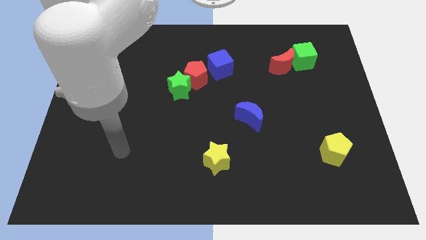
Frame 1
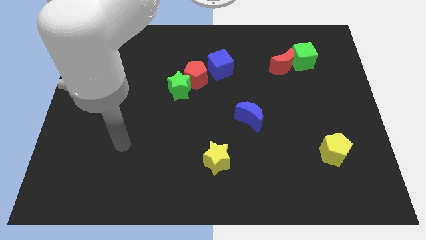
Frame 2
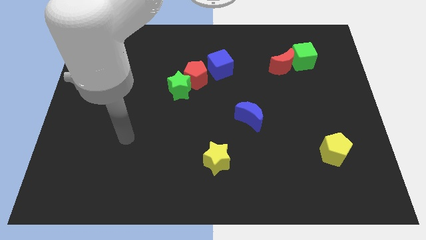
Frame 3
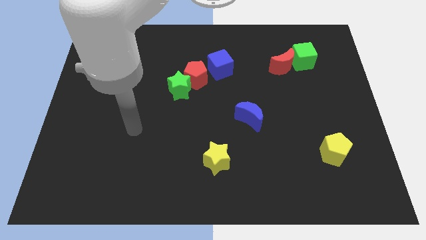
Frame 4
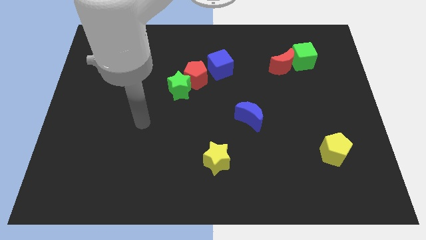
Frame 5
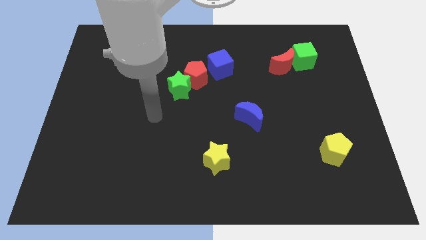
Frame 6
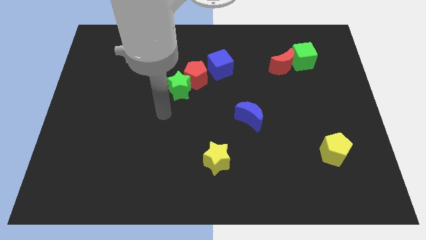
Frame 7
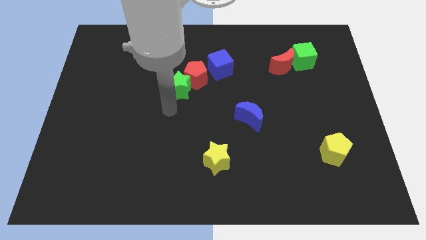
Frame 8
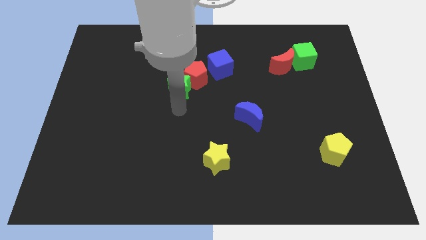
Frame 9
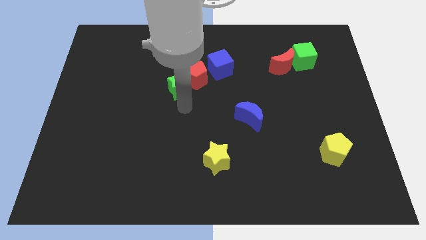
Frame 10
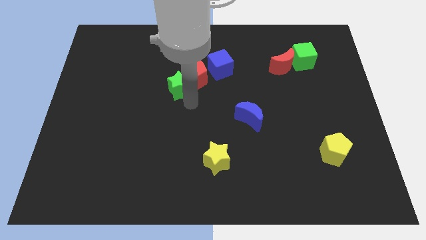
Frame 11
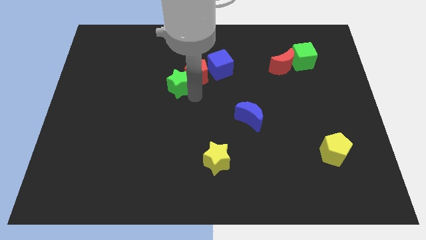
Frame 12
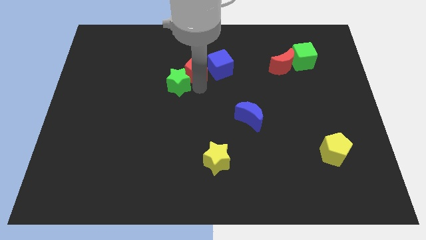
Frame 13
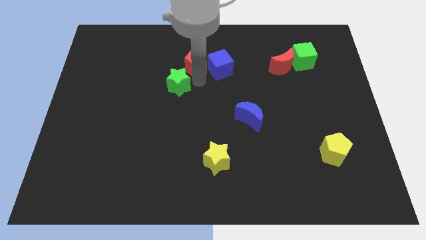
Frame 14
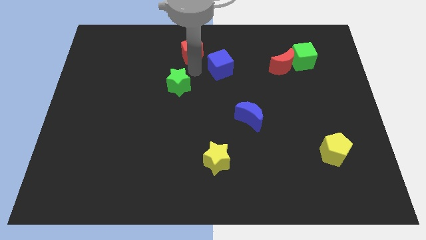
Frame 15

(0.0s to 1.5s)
move the green star away from the red pentagon

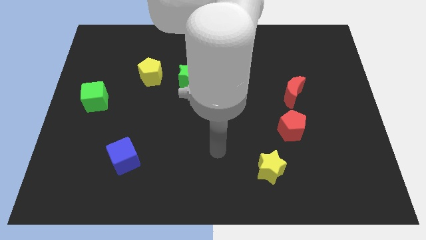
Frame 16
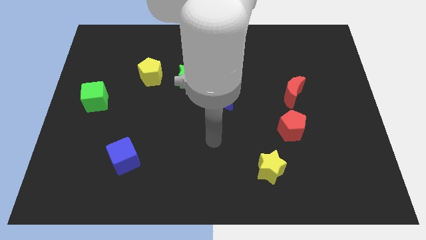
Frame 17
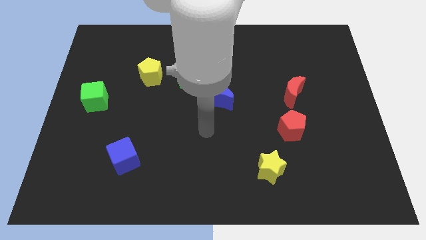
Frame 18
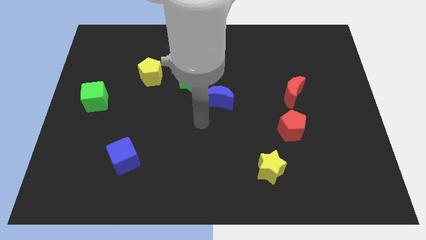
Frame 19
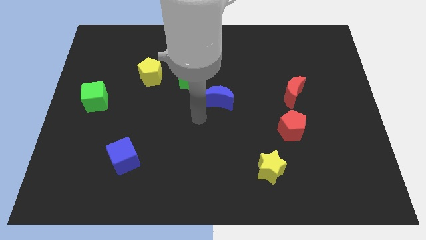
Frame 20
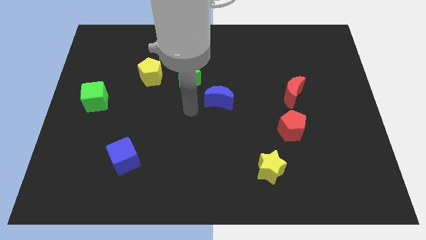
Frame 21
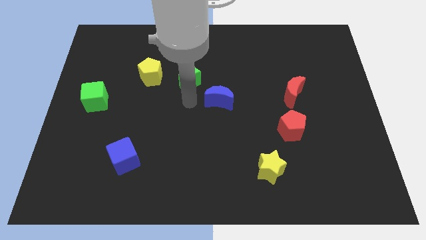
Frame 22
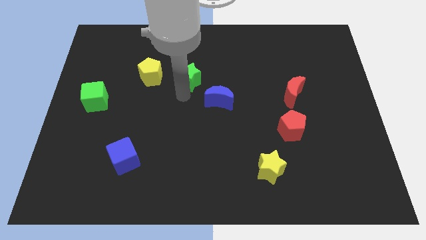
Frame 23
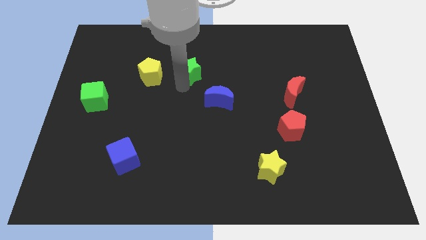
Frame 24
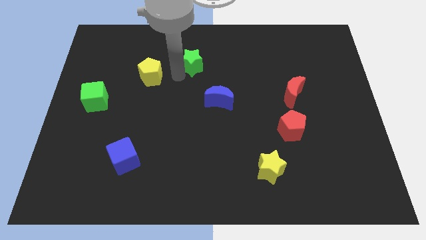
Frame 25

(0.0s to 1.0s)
move the yellow pentagon away from the green star

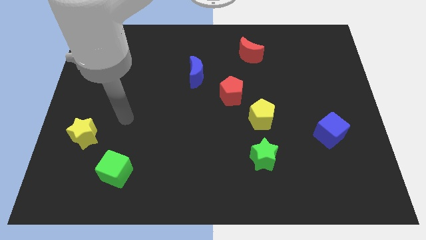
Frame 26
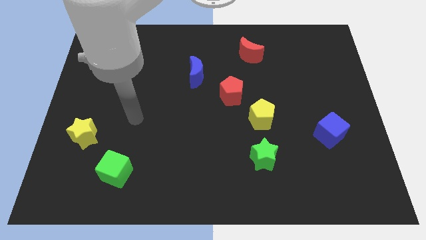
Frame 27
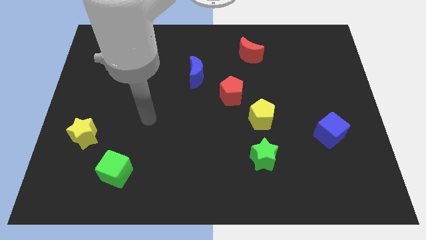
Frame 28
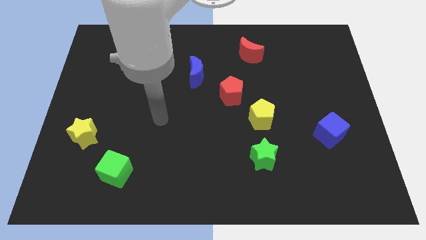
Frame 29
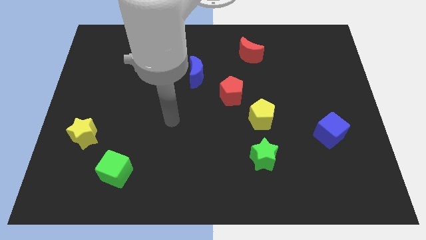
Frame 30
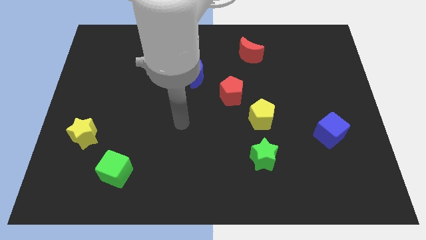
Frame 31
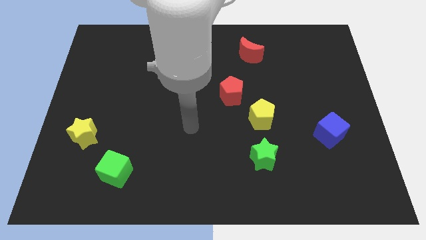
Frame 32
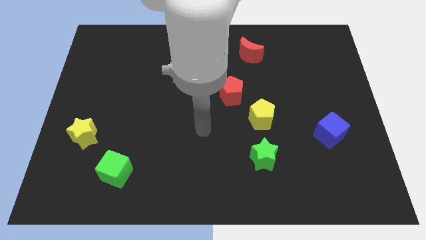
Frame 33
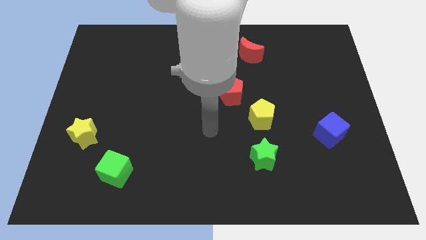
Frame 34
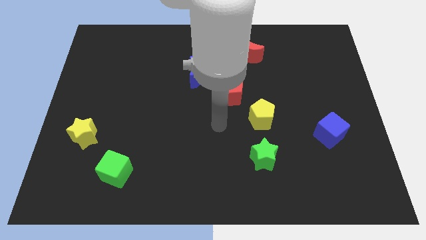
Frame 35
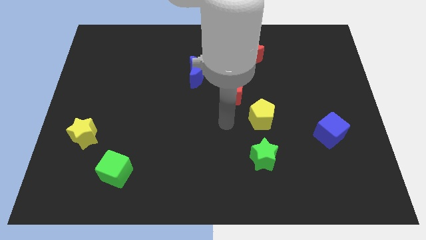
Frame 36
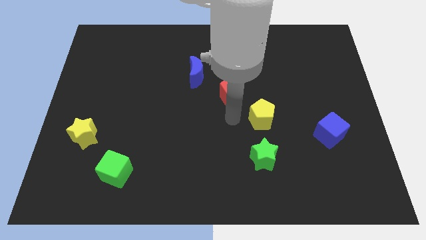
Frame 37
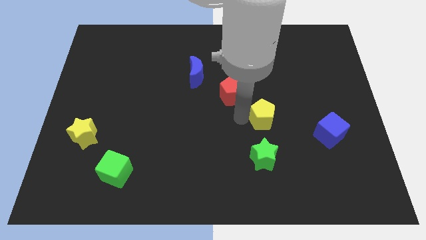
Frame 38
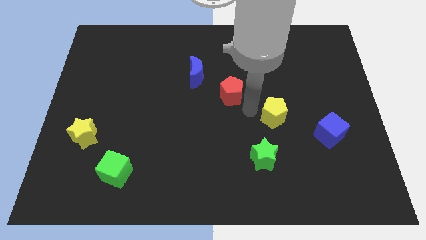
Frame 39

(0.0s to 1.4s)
pull the red pentagon apart from the yellow pentagon

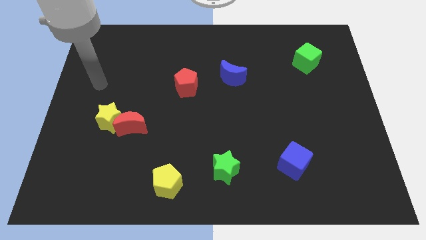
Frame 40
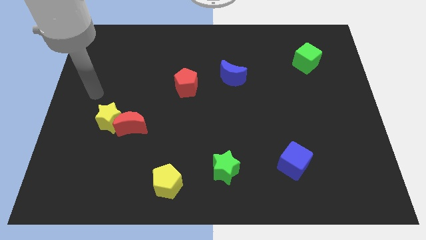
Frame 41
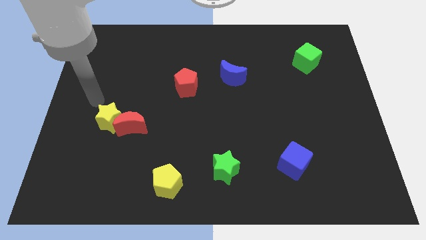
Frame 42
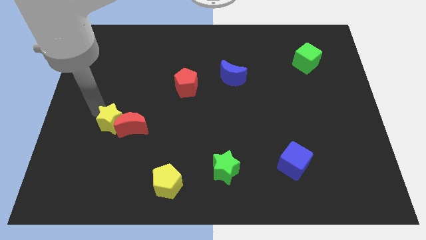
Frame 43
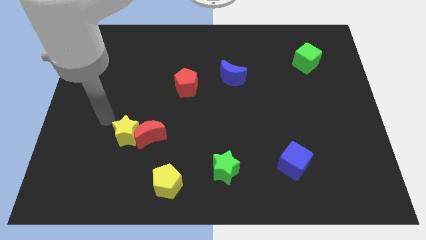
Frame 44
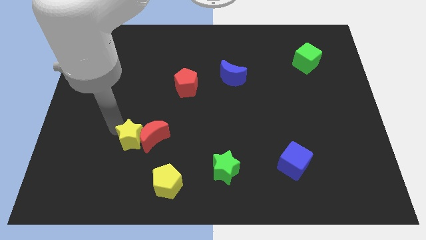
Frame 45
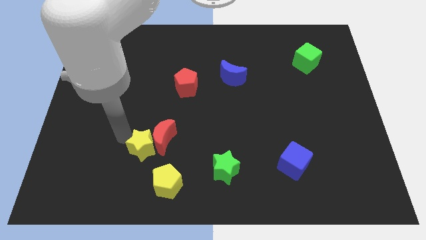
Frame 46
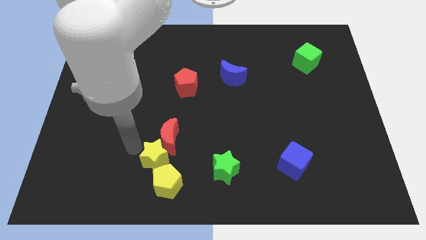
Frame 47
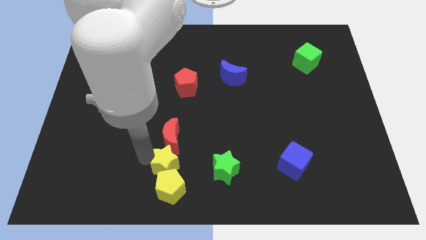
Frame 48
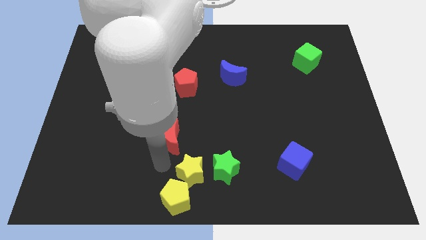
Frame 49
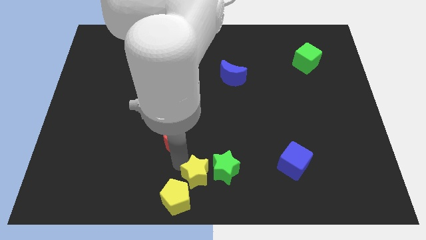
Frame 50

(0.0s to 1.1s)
move the red moon away from the yellow star

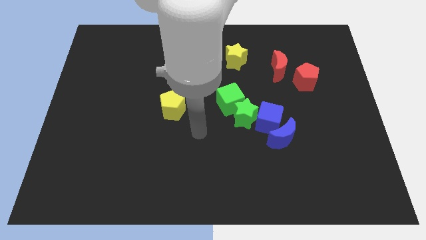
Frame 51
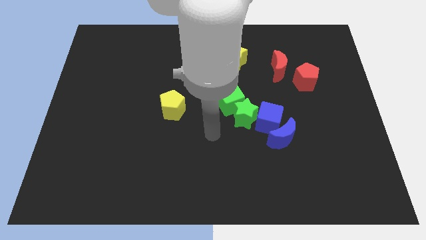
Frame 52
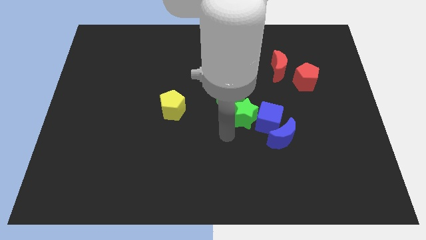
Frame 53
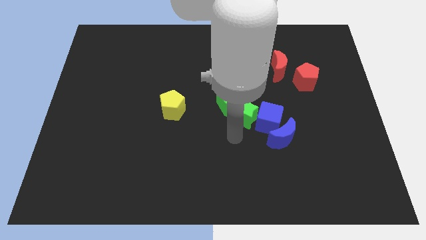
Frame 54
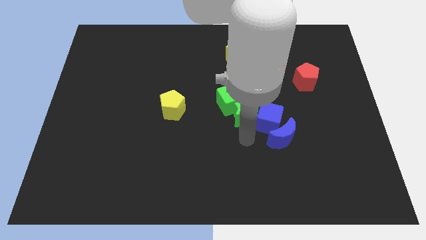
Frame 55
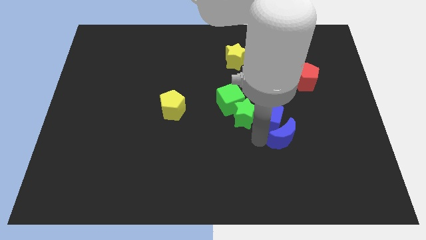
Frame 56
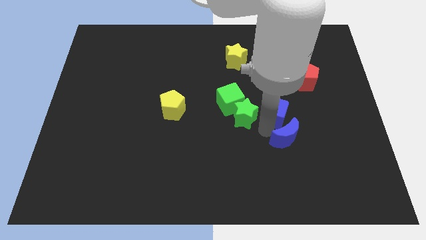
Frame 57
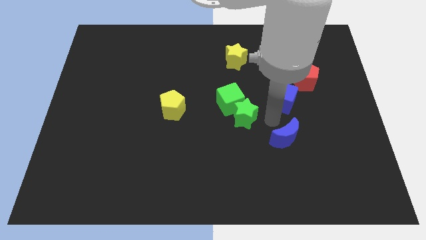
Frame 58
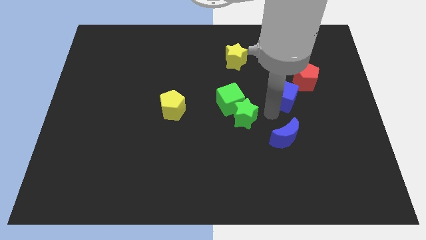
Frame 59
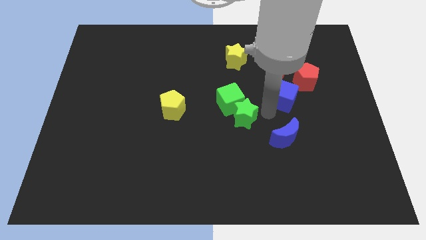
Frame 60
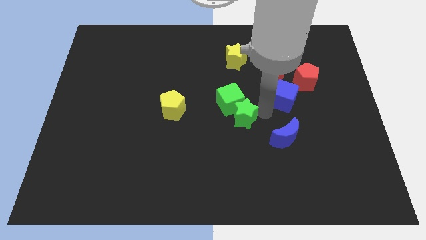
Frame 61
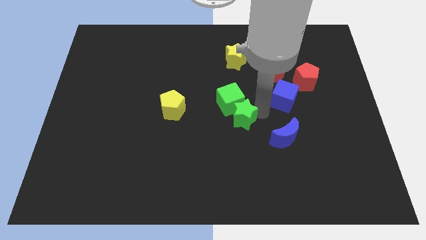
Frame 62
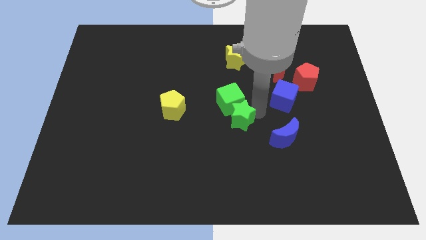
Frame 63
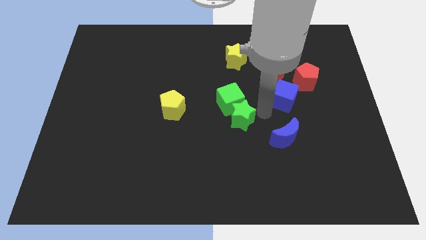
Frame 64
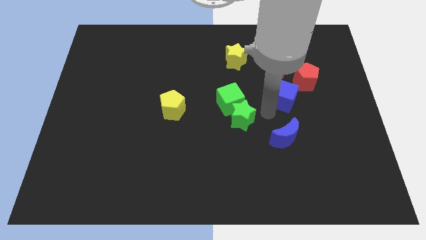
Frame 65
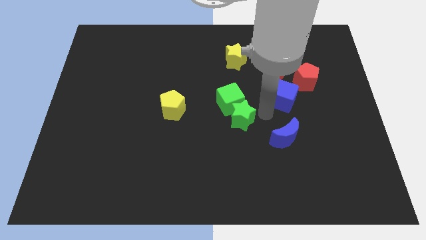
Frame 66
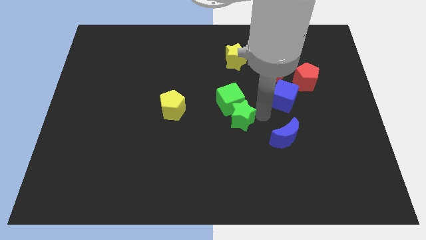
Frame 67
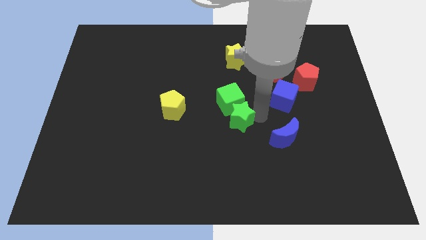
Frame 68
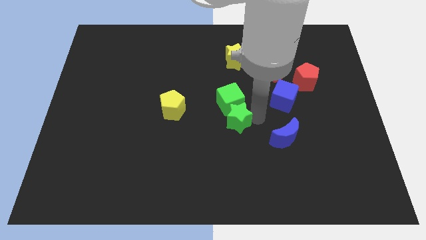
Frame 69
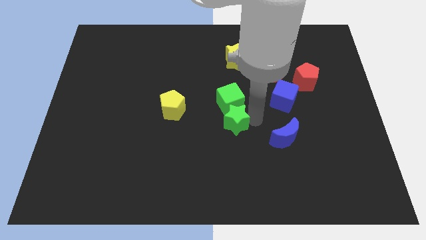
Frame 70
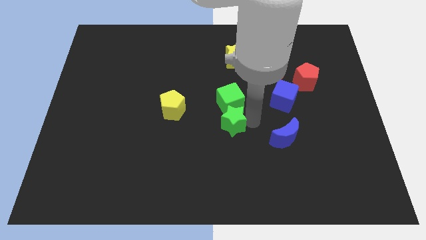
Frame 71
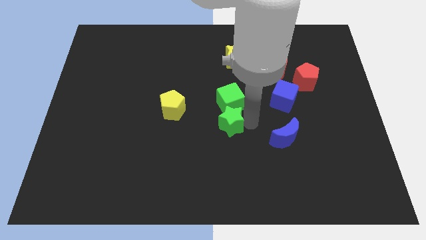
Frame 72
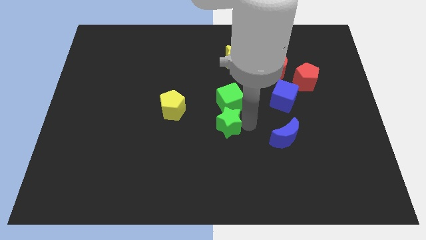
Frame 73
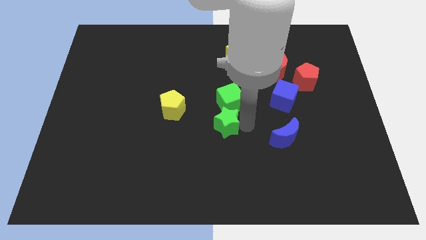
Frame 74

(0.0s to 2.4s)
separate the green star from the clump

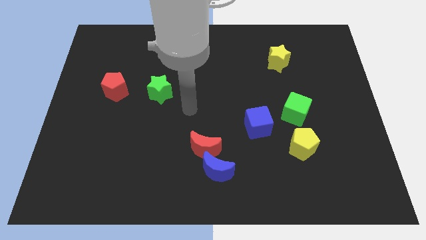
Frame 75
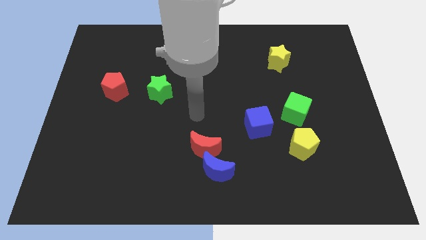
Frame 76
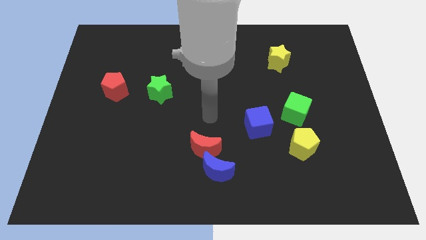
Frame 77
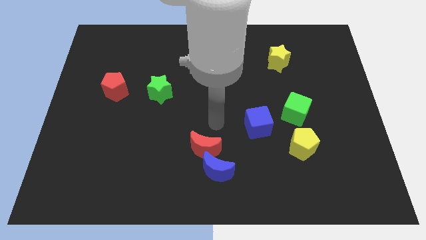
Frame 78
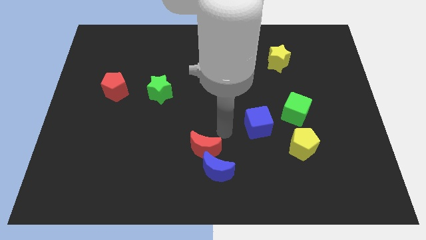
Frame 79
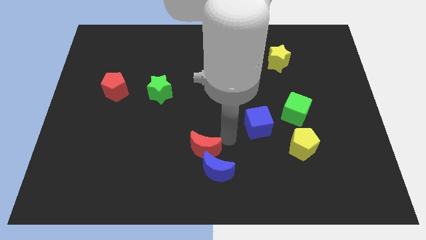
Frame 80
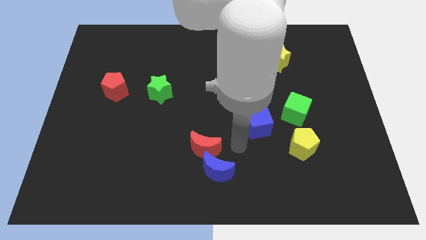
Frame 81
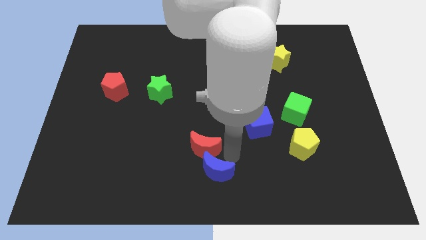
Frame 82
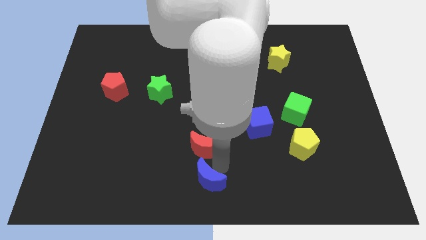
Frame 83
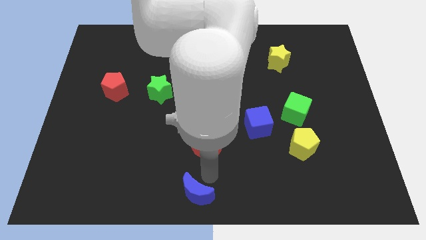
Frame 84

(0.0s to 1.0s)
pull the red moon apart from the blue moon

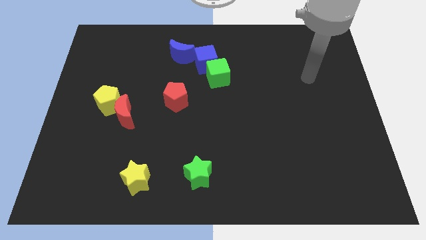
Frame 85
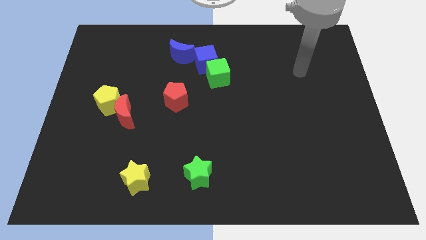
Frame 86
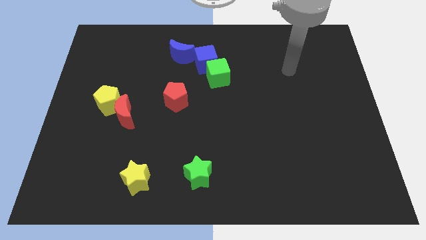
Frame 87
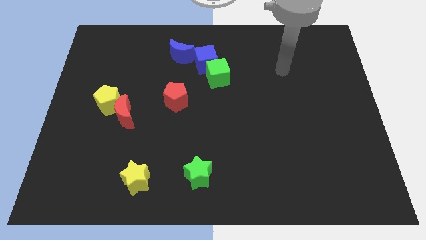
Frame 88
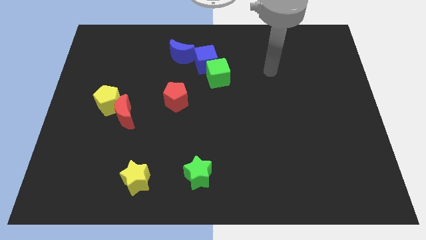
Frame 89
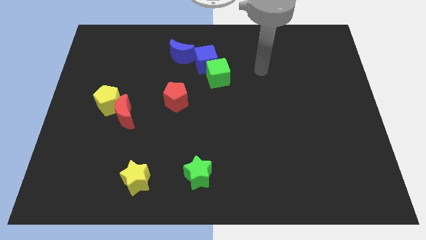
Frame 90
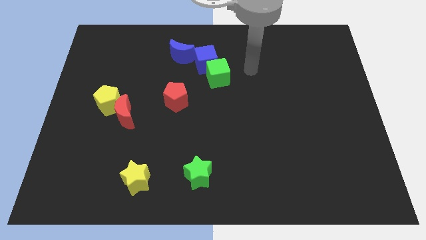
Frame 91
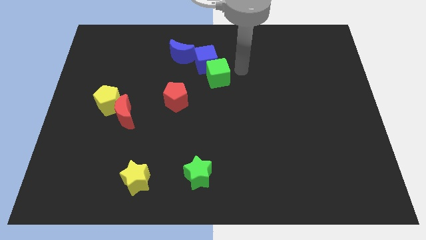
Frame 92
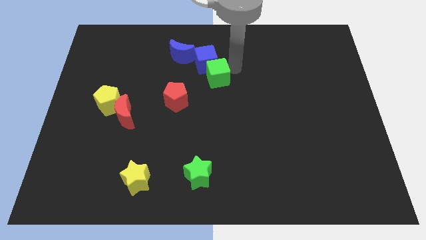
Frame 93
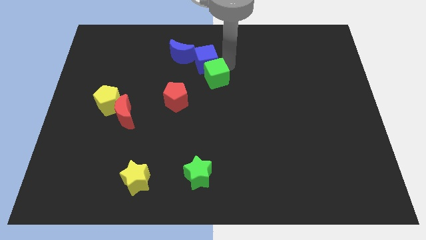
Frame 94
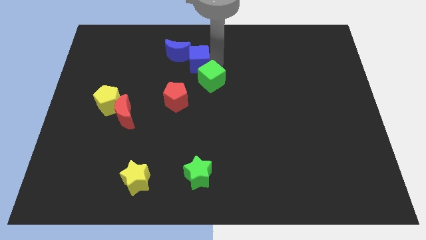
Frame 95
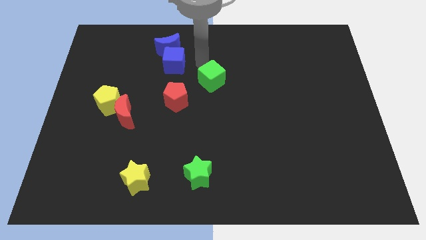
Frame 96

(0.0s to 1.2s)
move the green cube away from the blue cube
